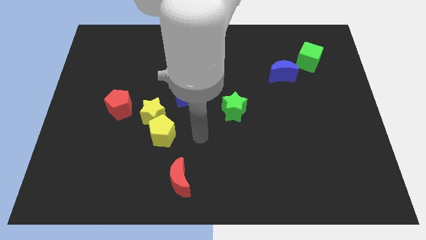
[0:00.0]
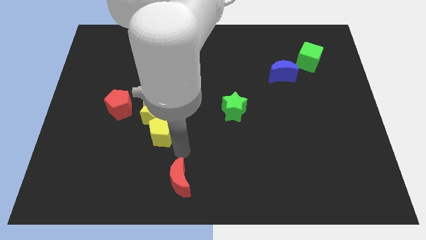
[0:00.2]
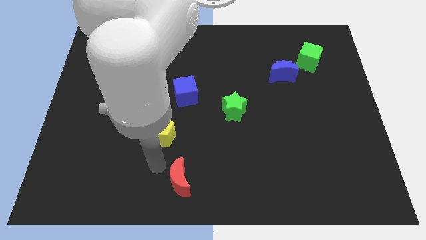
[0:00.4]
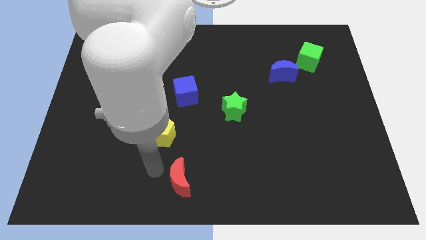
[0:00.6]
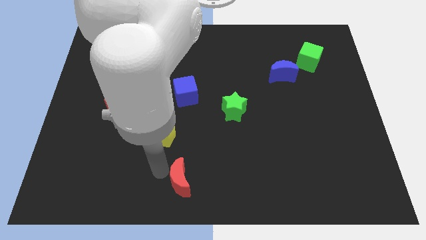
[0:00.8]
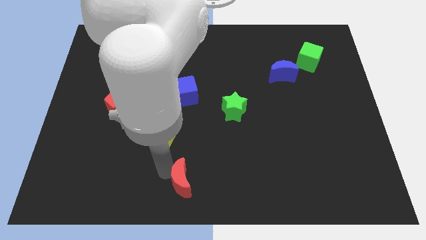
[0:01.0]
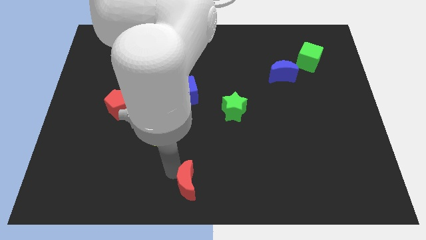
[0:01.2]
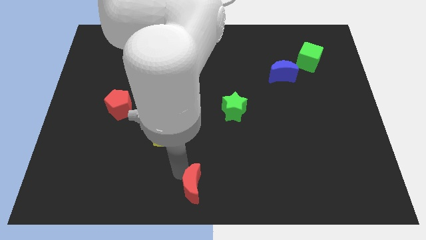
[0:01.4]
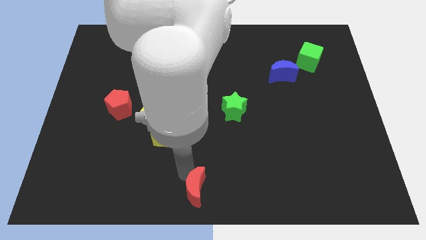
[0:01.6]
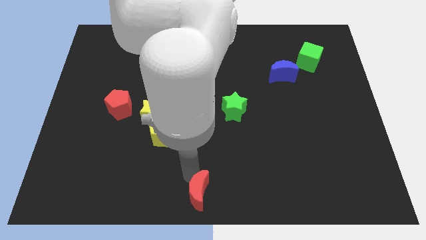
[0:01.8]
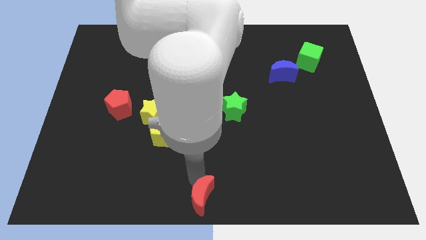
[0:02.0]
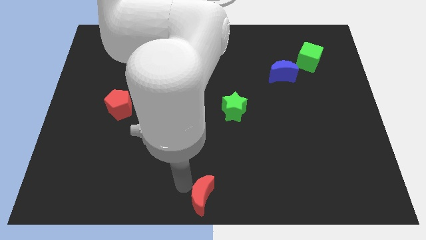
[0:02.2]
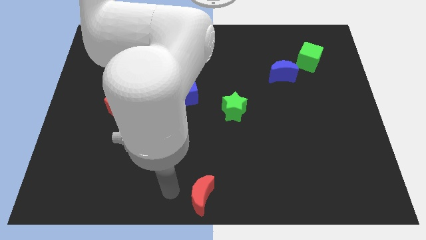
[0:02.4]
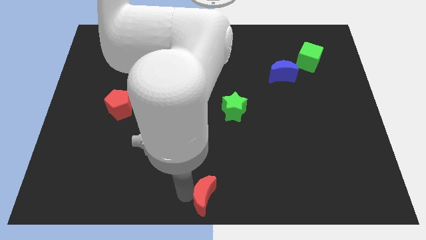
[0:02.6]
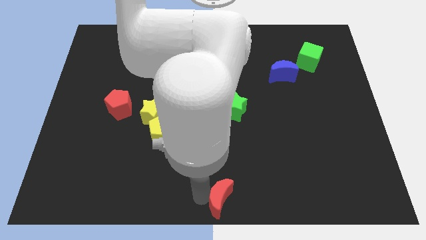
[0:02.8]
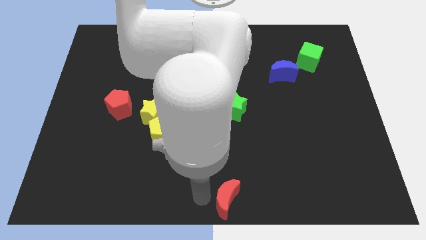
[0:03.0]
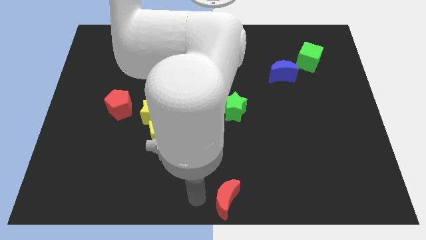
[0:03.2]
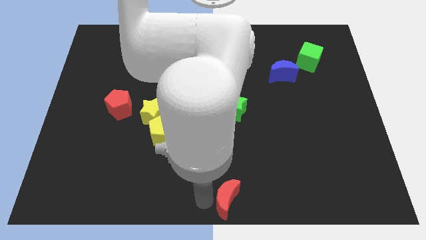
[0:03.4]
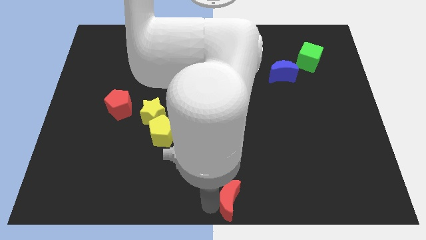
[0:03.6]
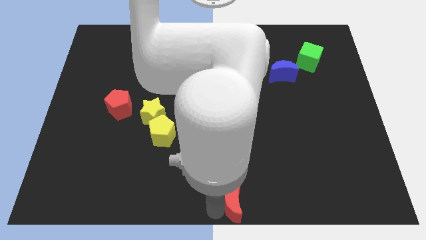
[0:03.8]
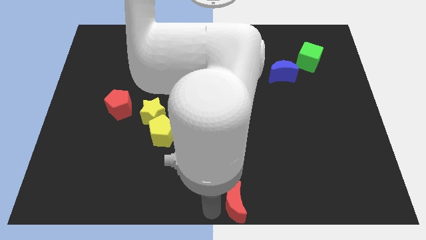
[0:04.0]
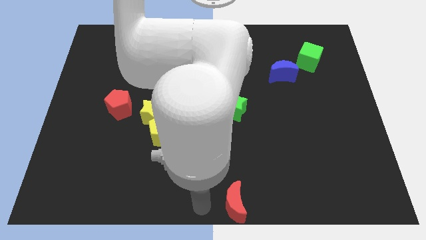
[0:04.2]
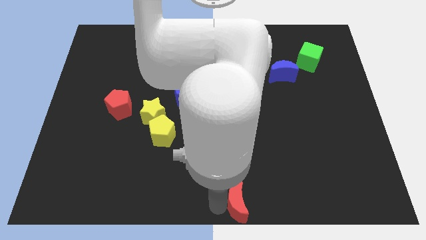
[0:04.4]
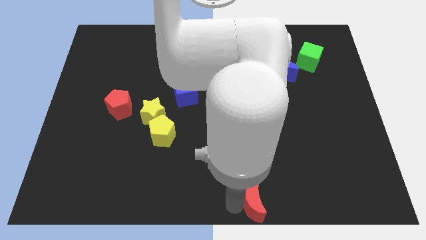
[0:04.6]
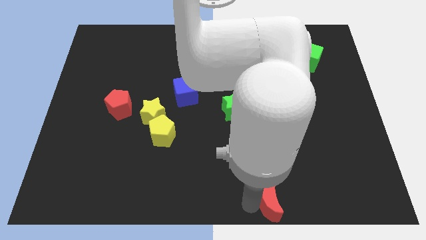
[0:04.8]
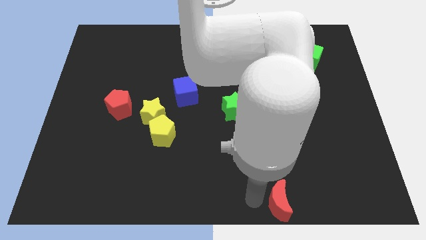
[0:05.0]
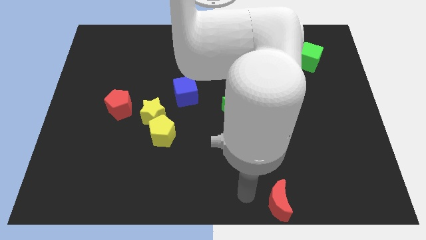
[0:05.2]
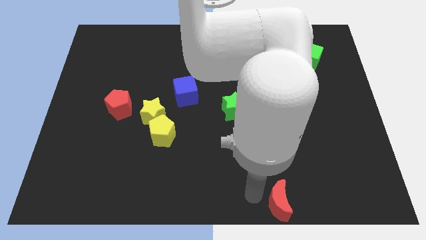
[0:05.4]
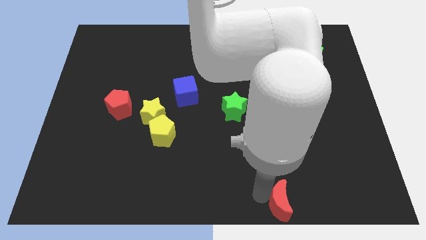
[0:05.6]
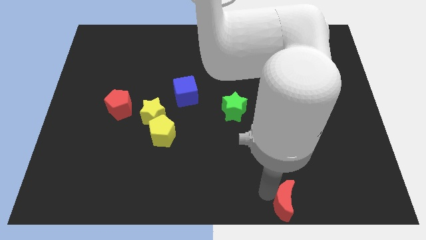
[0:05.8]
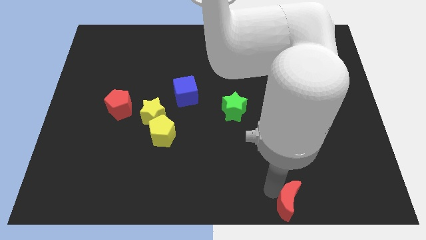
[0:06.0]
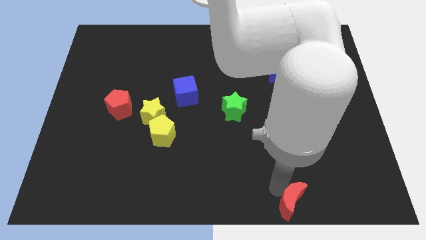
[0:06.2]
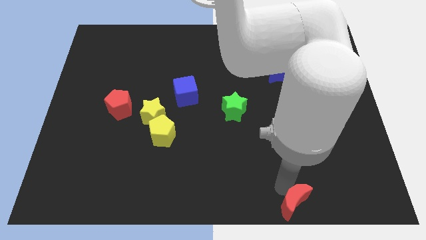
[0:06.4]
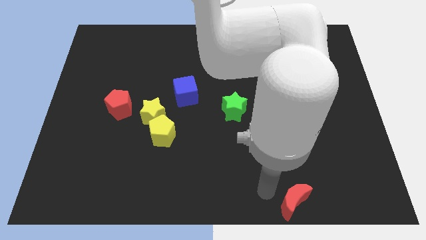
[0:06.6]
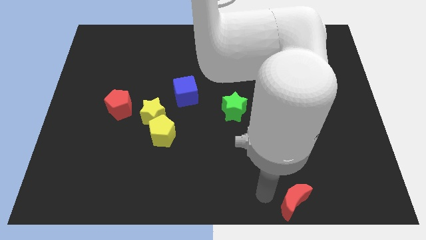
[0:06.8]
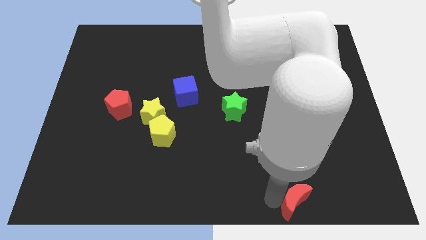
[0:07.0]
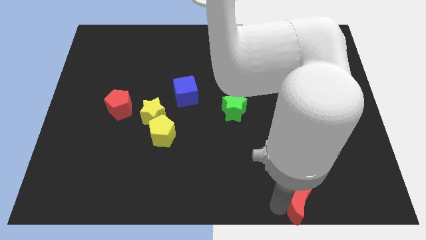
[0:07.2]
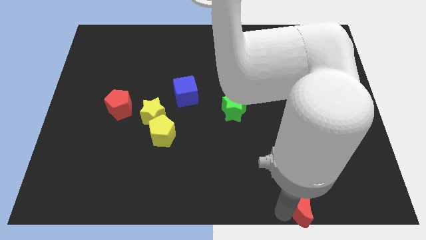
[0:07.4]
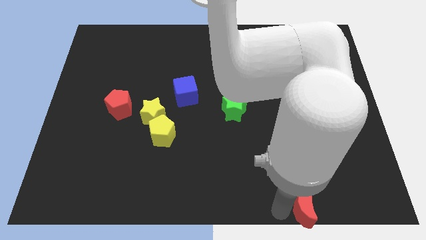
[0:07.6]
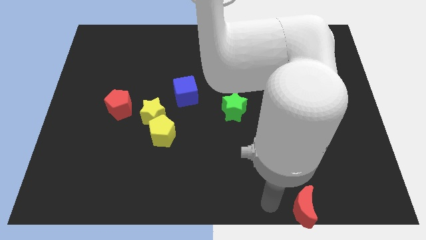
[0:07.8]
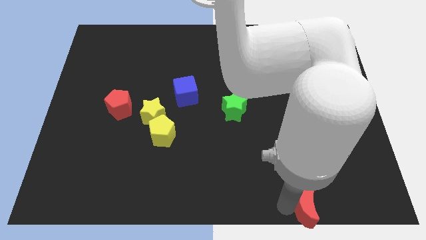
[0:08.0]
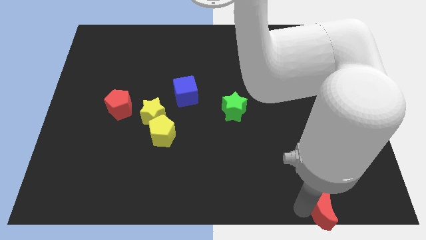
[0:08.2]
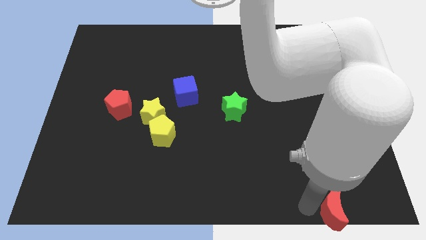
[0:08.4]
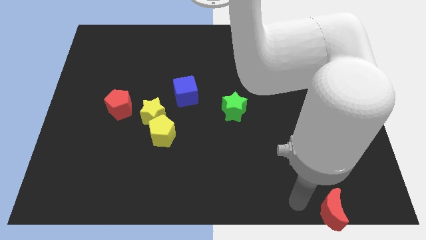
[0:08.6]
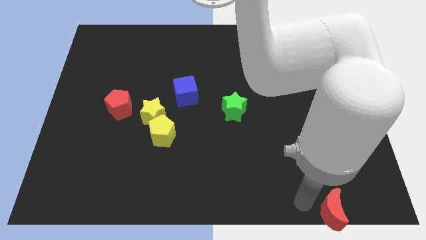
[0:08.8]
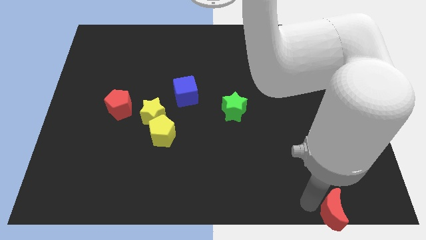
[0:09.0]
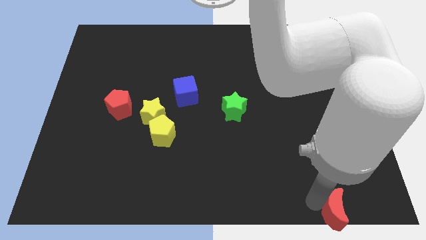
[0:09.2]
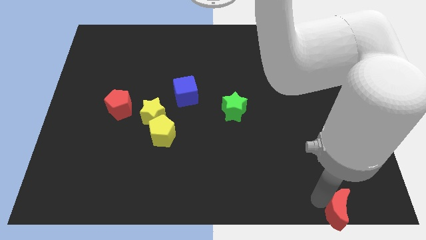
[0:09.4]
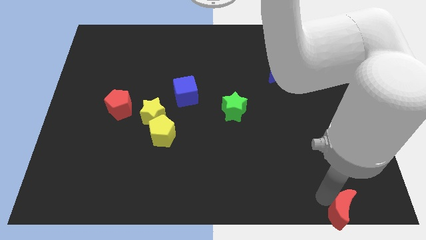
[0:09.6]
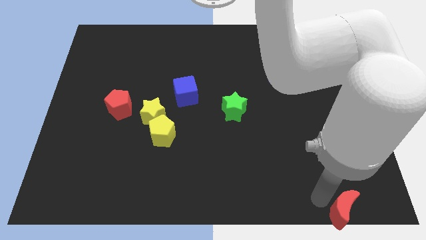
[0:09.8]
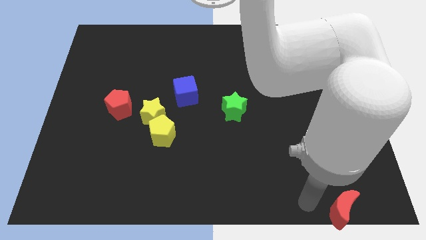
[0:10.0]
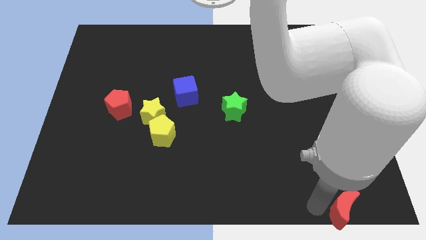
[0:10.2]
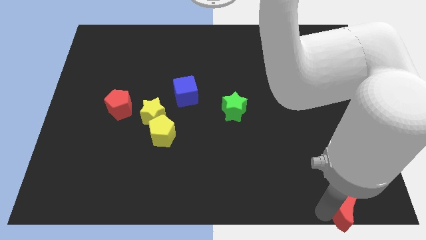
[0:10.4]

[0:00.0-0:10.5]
put the red moon to the bottom right corner

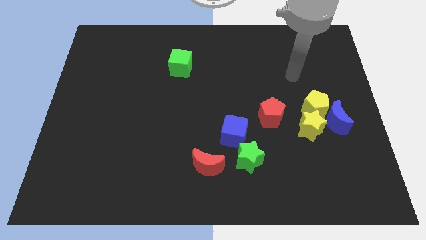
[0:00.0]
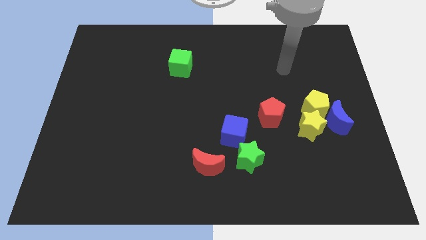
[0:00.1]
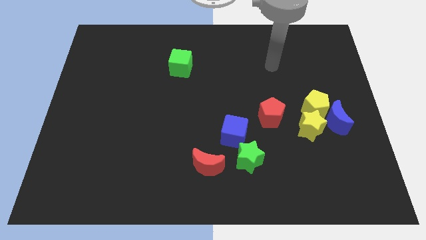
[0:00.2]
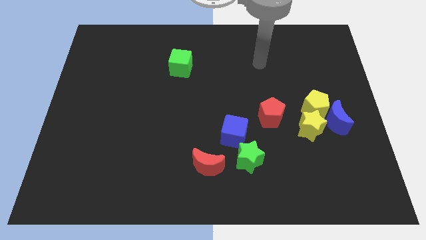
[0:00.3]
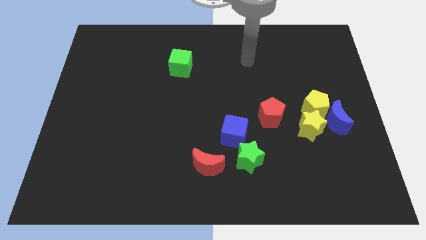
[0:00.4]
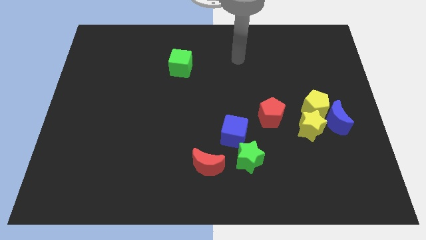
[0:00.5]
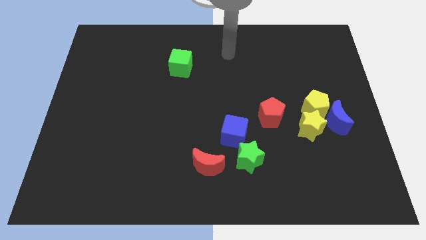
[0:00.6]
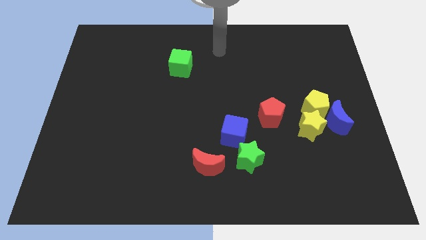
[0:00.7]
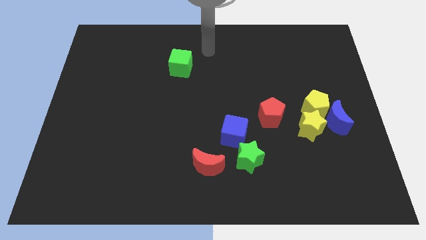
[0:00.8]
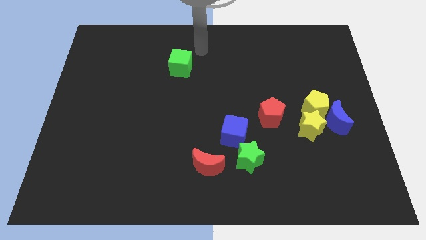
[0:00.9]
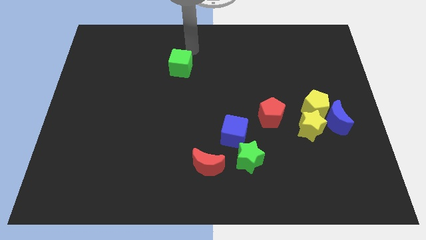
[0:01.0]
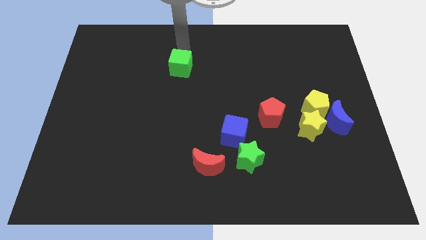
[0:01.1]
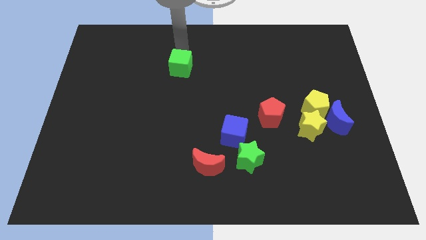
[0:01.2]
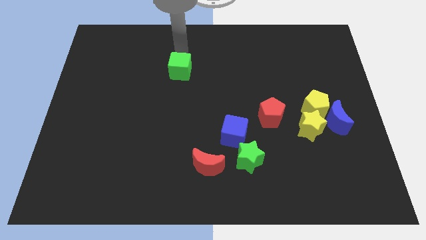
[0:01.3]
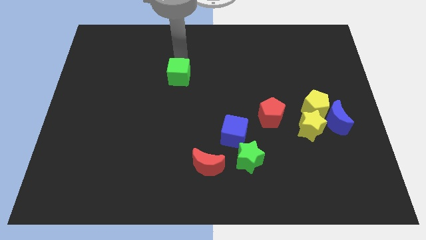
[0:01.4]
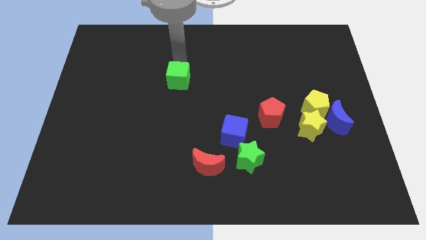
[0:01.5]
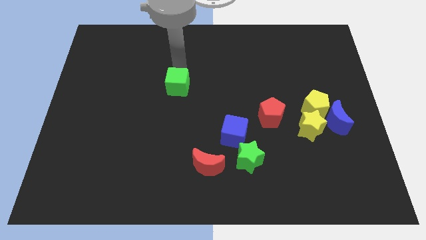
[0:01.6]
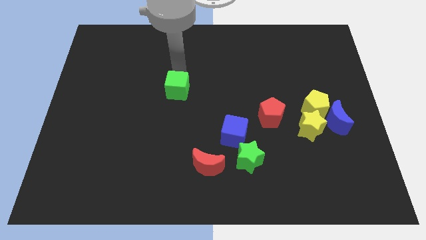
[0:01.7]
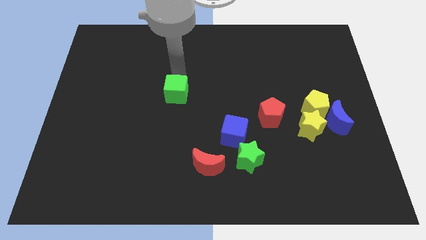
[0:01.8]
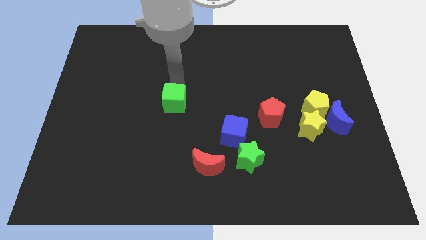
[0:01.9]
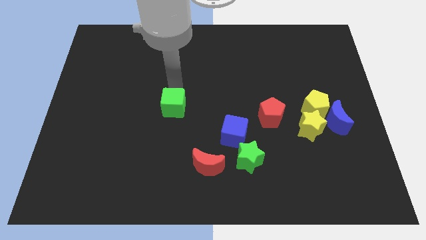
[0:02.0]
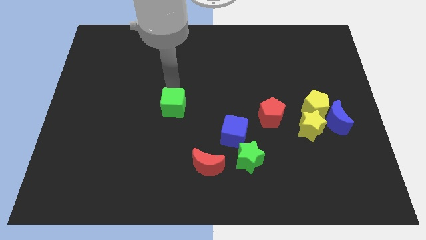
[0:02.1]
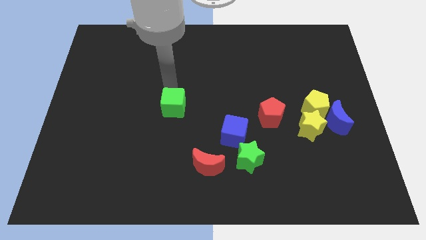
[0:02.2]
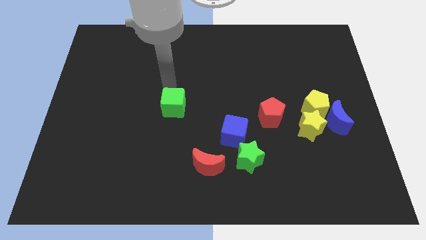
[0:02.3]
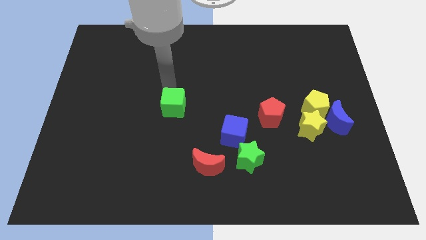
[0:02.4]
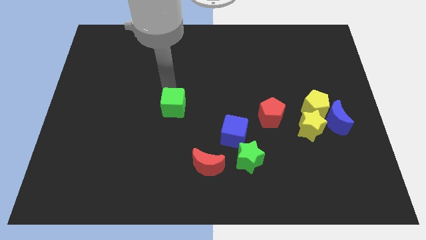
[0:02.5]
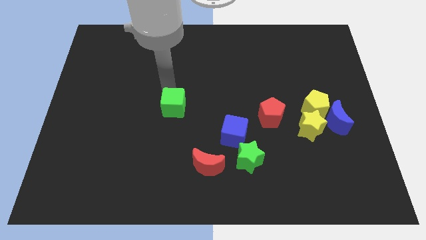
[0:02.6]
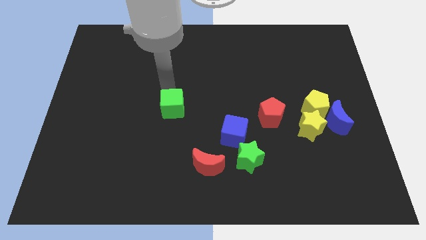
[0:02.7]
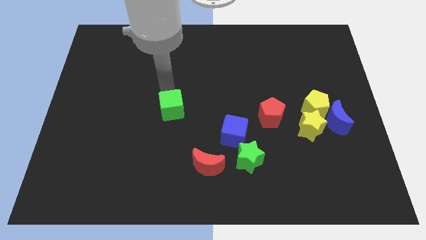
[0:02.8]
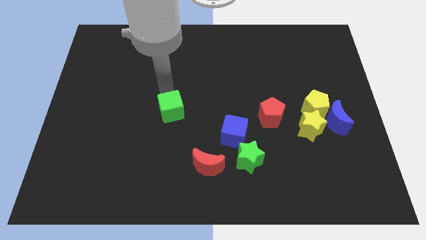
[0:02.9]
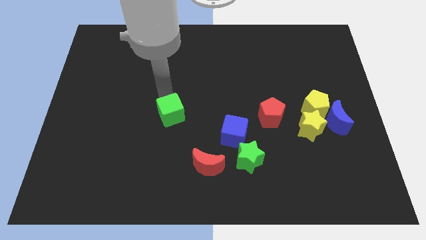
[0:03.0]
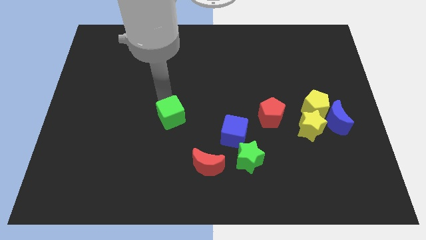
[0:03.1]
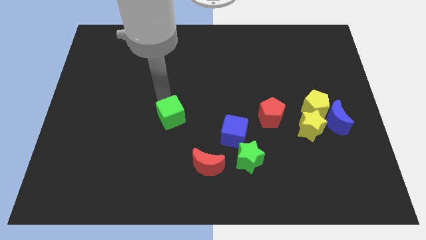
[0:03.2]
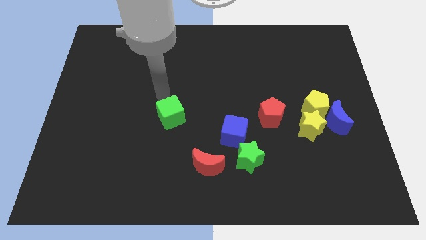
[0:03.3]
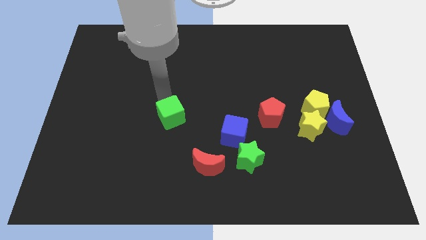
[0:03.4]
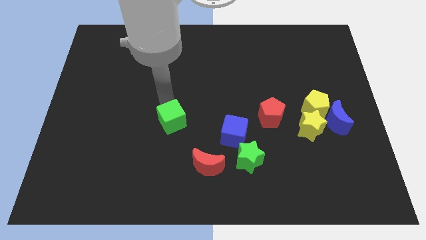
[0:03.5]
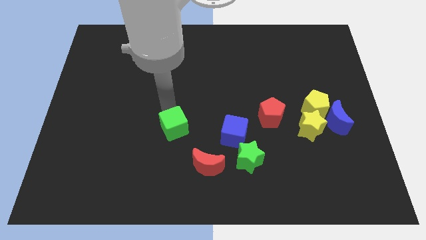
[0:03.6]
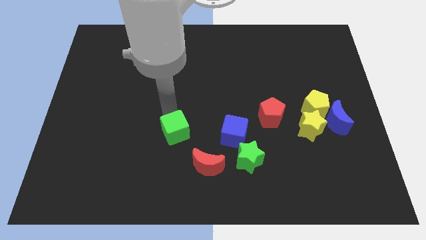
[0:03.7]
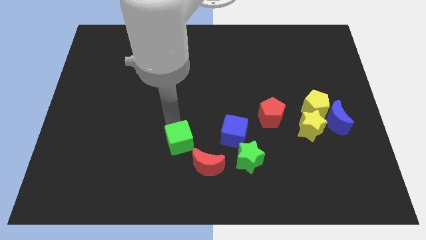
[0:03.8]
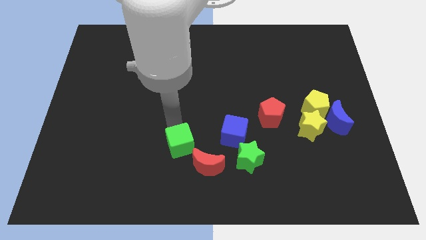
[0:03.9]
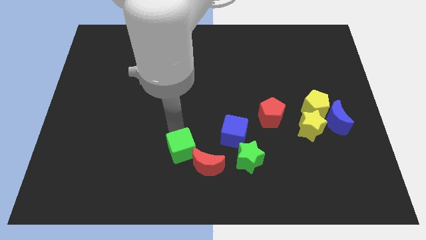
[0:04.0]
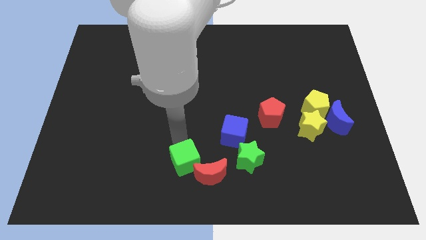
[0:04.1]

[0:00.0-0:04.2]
slide the green cube to the bottom side
